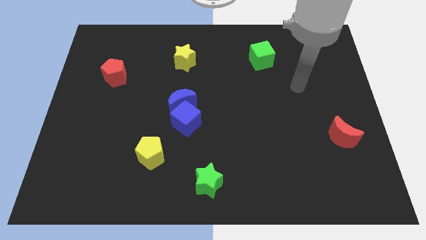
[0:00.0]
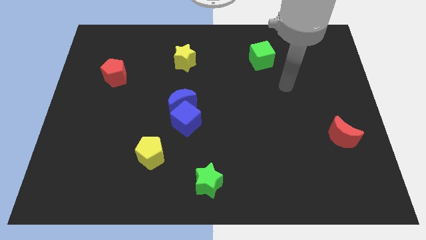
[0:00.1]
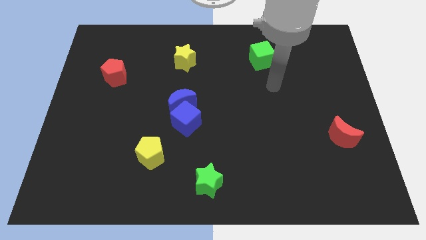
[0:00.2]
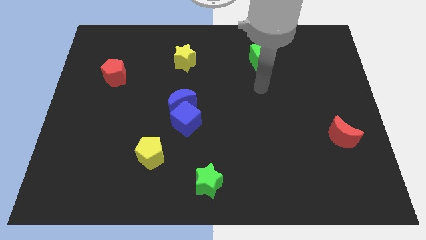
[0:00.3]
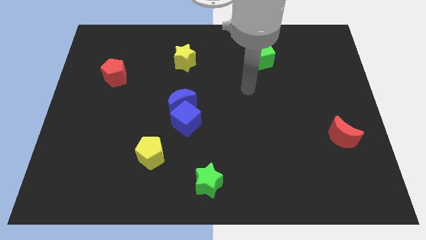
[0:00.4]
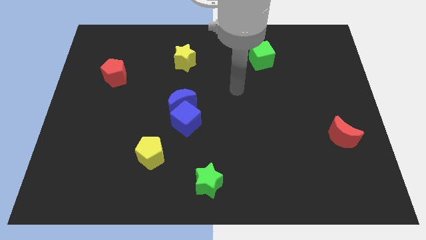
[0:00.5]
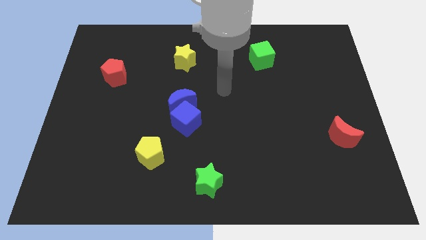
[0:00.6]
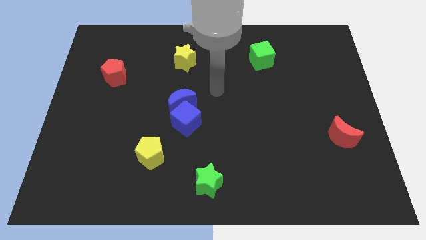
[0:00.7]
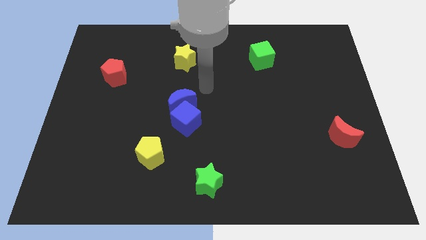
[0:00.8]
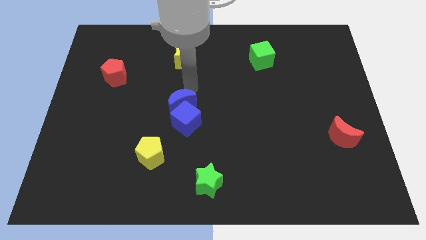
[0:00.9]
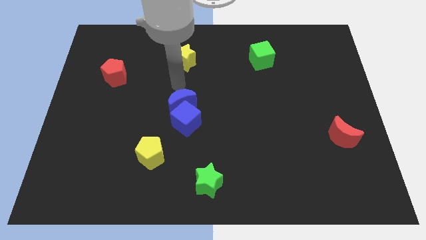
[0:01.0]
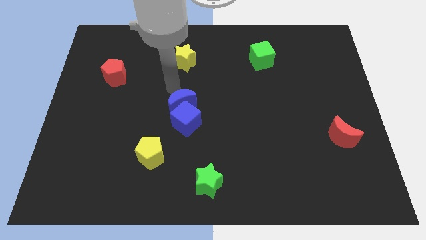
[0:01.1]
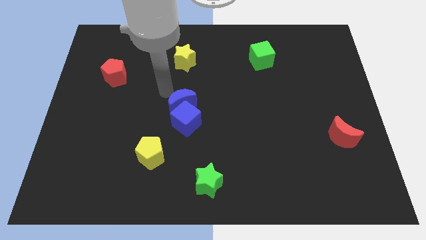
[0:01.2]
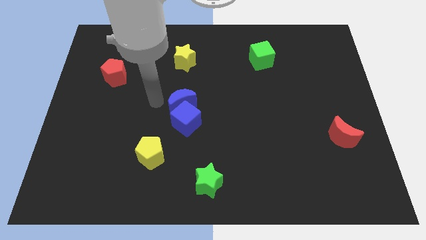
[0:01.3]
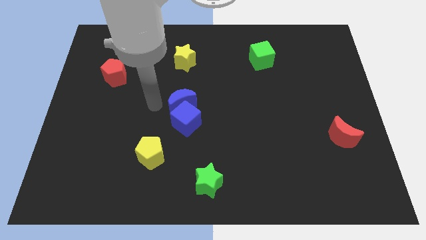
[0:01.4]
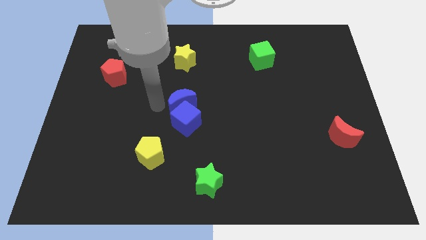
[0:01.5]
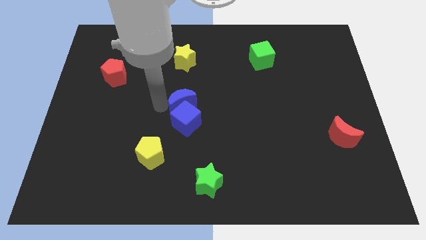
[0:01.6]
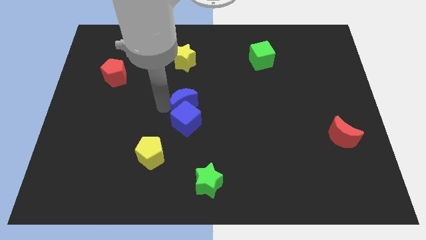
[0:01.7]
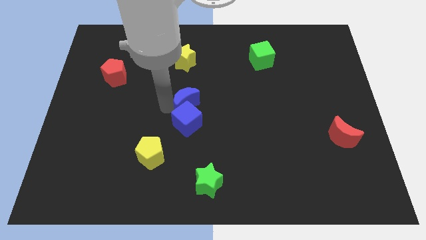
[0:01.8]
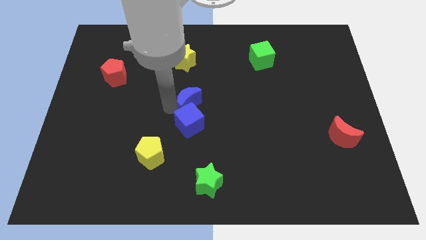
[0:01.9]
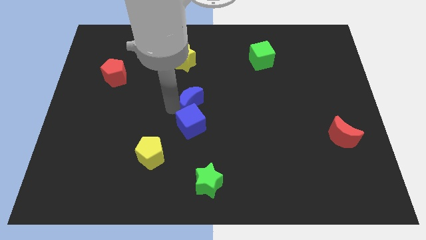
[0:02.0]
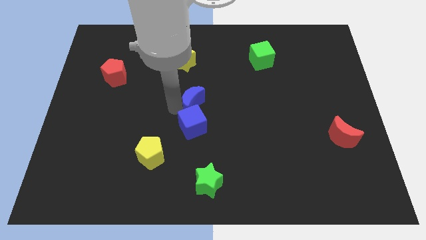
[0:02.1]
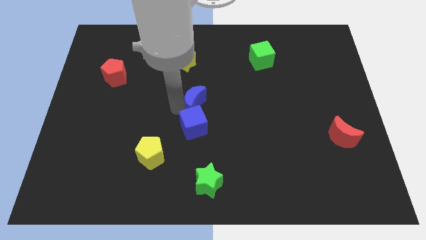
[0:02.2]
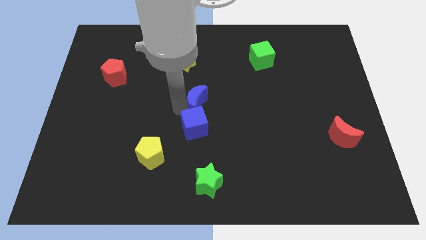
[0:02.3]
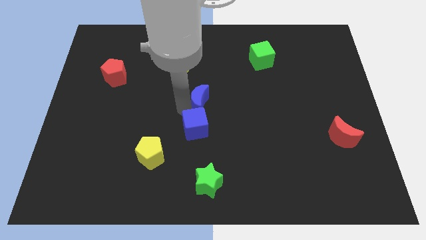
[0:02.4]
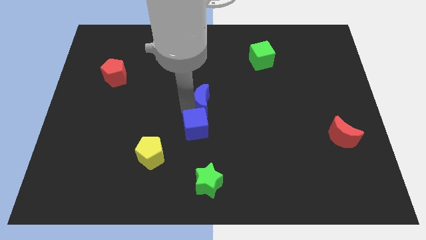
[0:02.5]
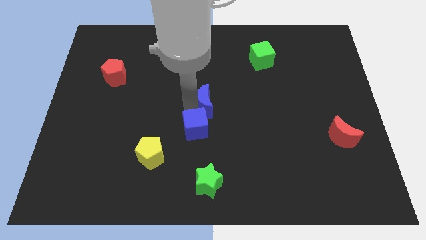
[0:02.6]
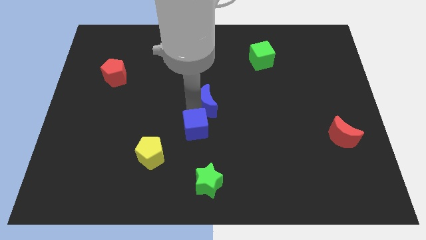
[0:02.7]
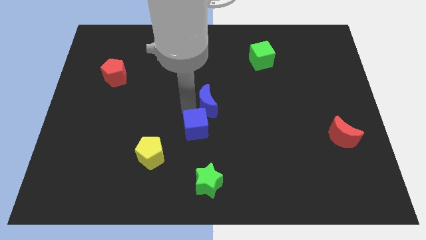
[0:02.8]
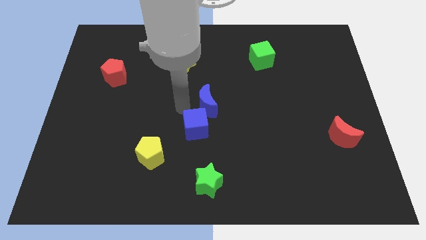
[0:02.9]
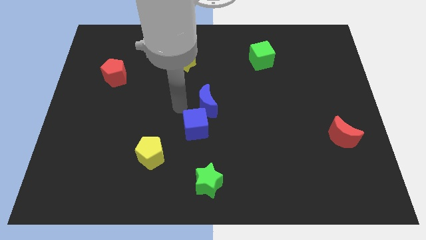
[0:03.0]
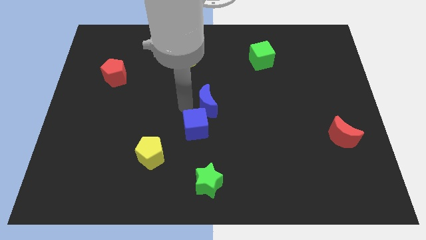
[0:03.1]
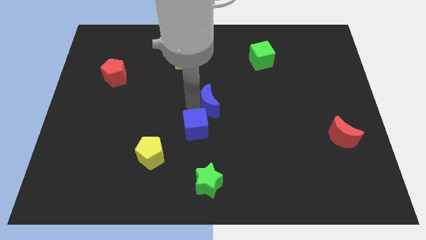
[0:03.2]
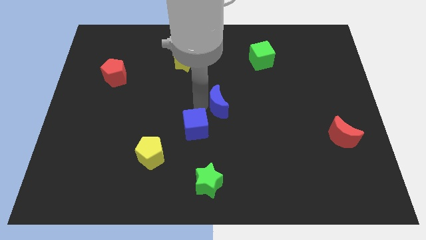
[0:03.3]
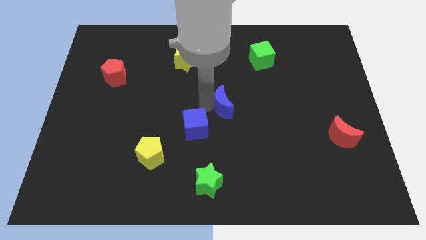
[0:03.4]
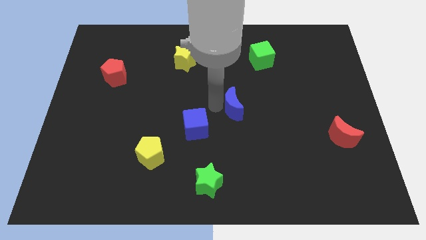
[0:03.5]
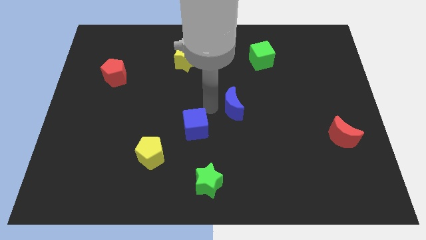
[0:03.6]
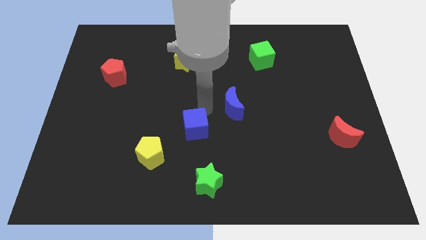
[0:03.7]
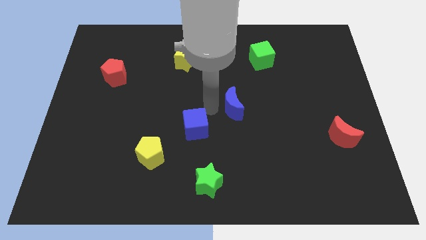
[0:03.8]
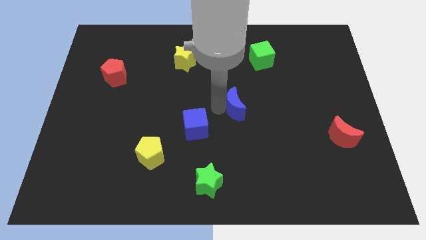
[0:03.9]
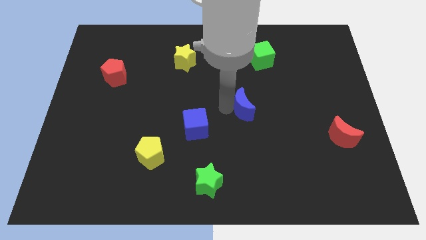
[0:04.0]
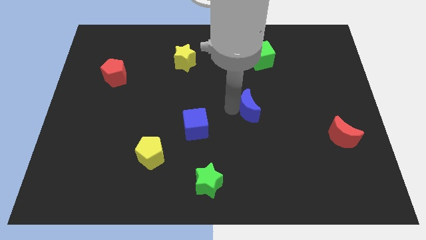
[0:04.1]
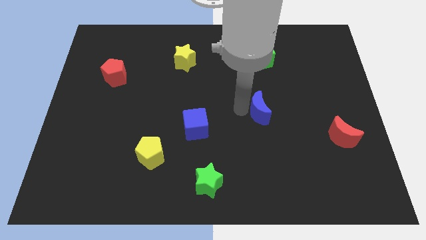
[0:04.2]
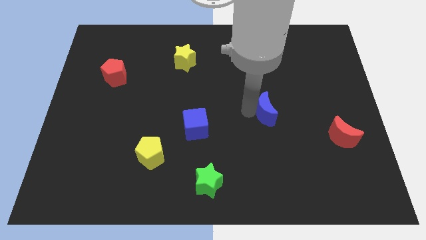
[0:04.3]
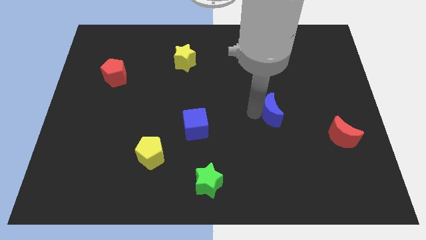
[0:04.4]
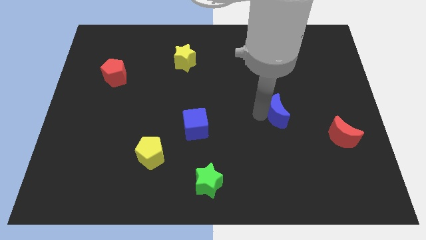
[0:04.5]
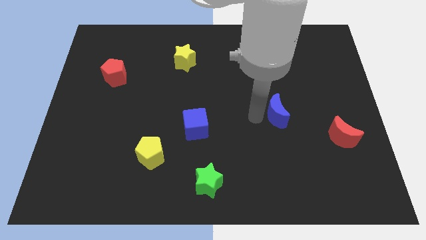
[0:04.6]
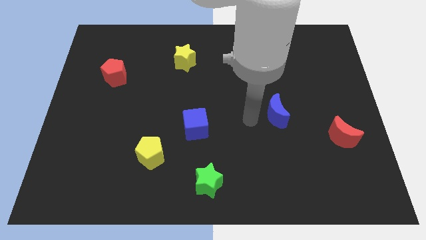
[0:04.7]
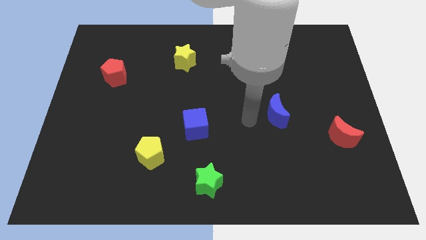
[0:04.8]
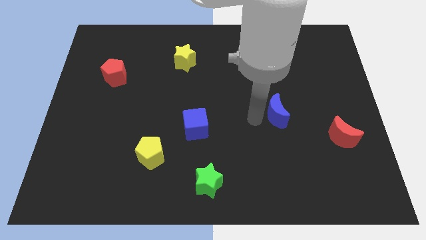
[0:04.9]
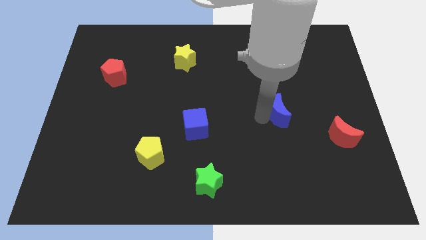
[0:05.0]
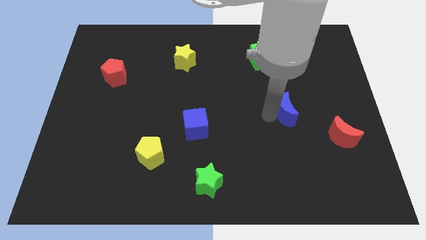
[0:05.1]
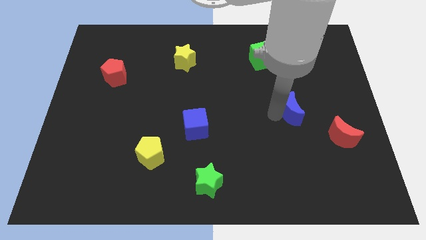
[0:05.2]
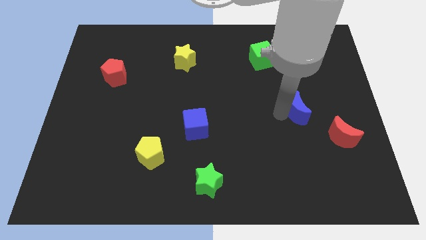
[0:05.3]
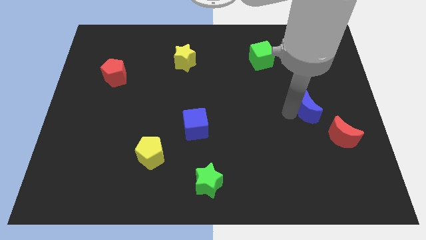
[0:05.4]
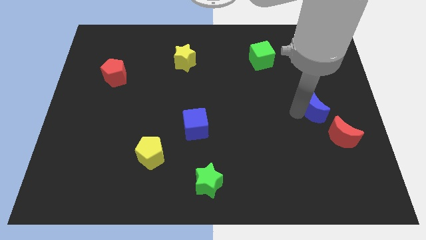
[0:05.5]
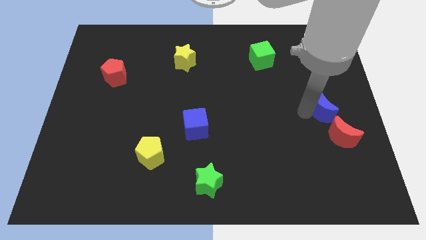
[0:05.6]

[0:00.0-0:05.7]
slide the blue moon to the top of the red moon

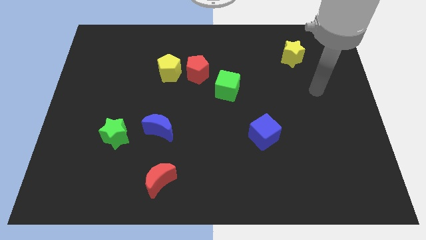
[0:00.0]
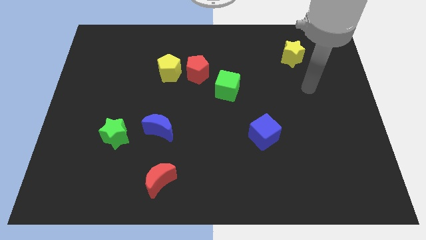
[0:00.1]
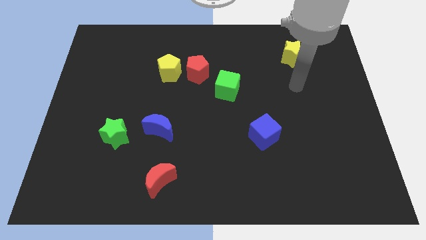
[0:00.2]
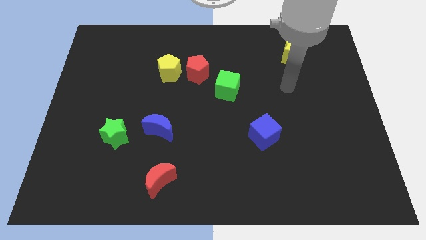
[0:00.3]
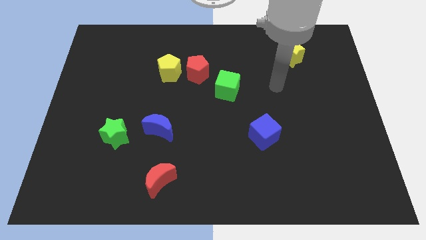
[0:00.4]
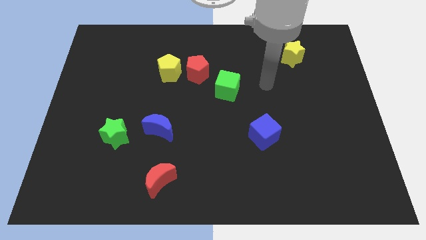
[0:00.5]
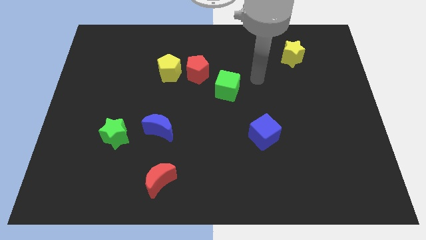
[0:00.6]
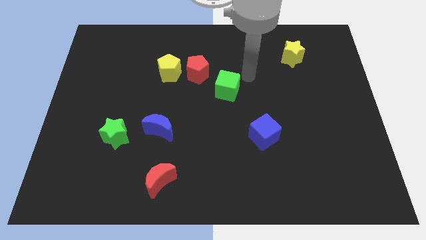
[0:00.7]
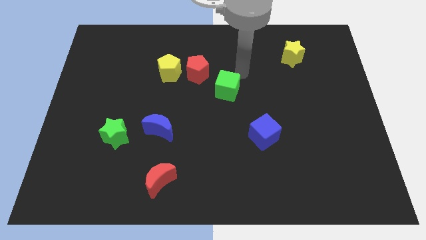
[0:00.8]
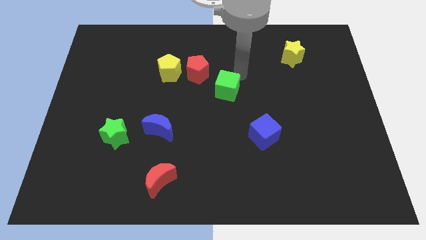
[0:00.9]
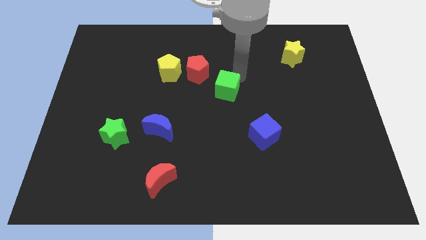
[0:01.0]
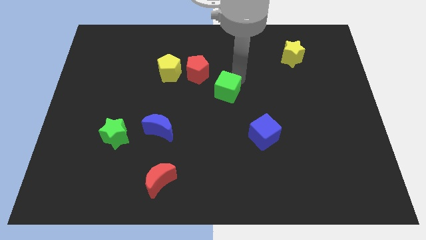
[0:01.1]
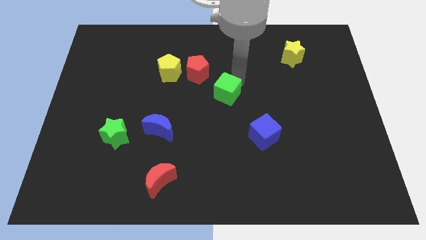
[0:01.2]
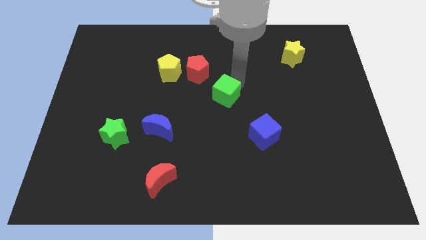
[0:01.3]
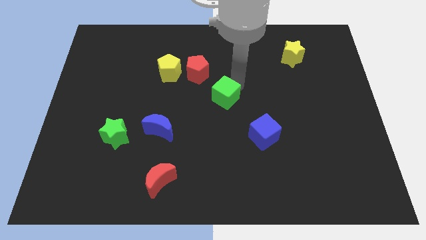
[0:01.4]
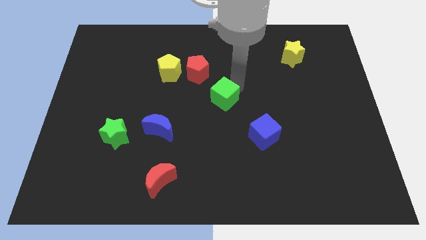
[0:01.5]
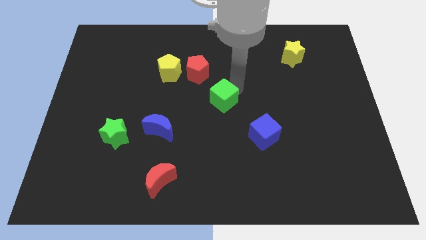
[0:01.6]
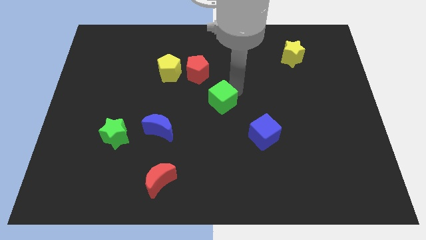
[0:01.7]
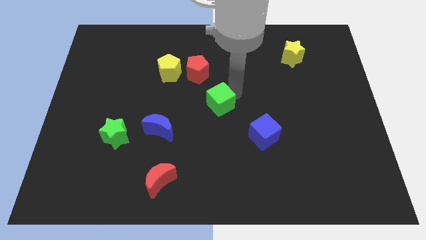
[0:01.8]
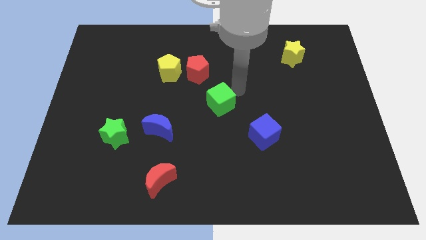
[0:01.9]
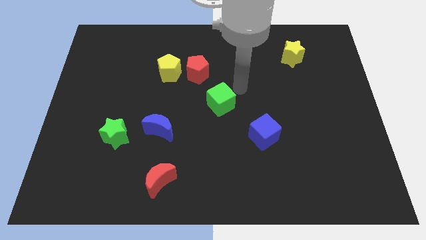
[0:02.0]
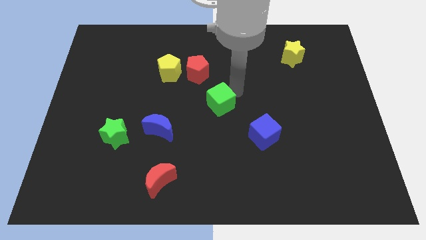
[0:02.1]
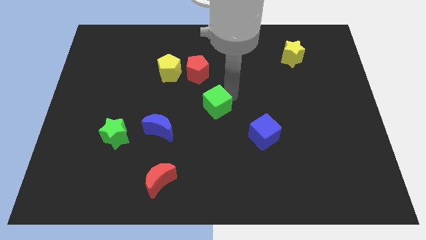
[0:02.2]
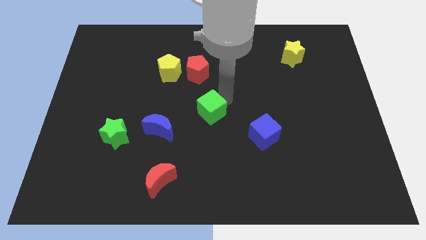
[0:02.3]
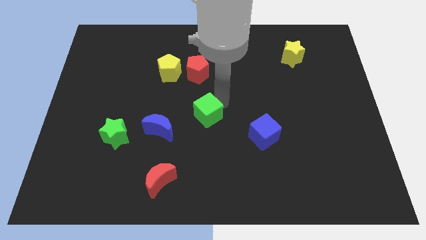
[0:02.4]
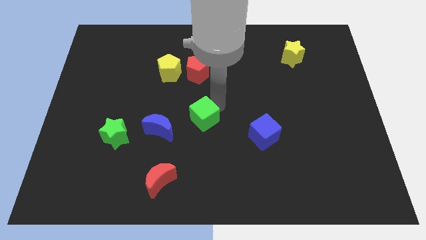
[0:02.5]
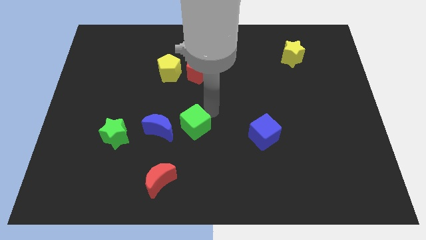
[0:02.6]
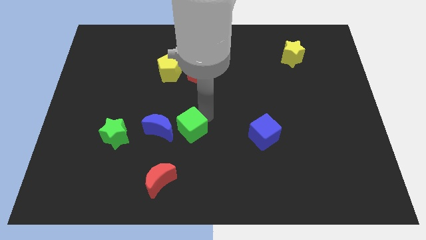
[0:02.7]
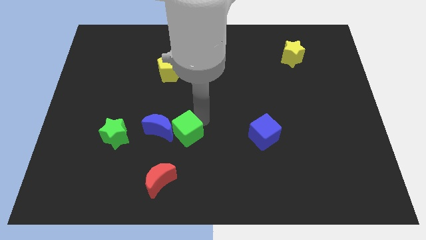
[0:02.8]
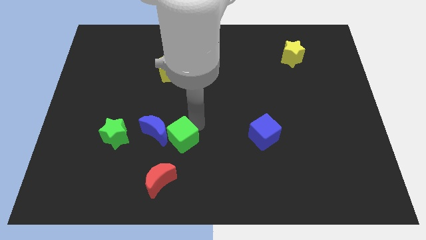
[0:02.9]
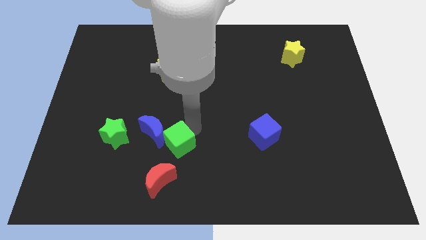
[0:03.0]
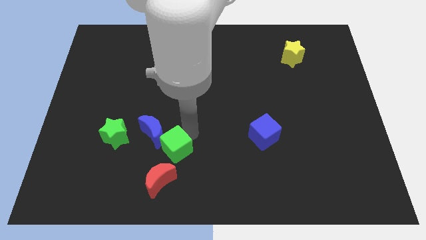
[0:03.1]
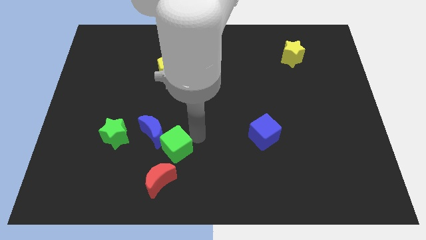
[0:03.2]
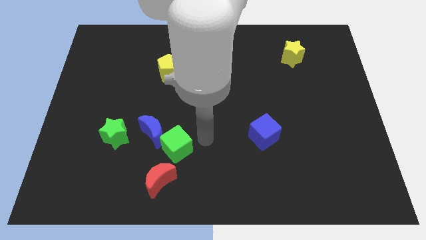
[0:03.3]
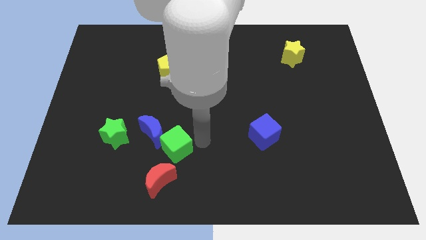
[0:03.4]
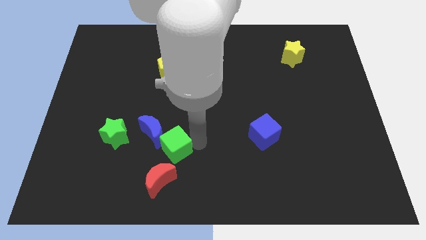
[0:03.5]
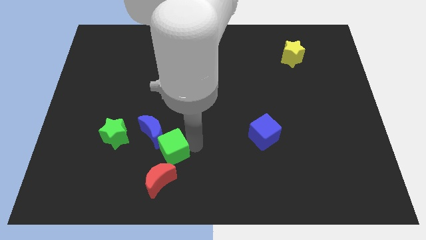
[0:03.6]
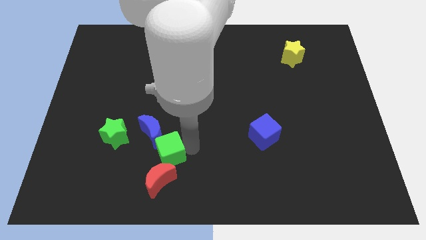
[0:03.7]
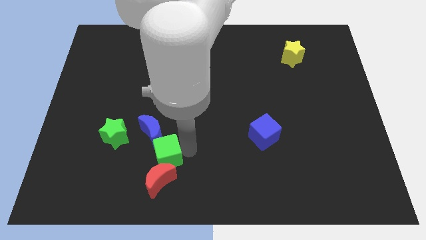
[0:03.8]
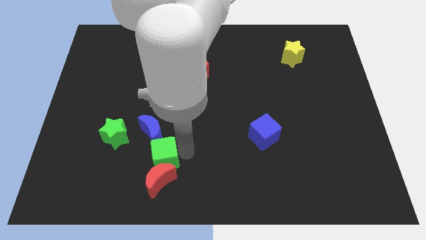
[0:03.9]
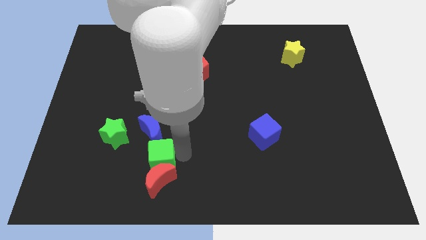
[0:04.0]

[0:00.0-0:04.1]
put the green cube diagonally down and to the right of the green star
